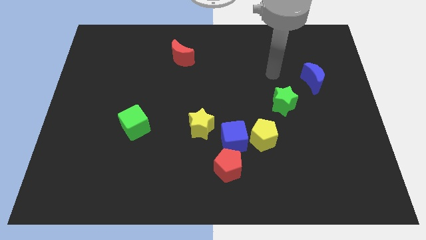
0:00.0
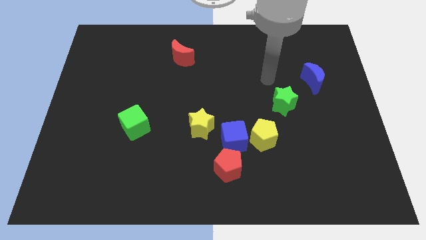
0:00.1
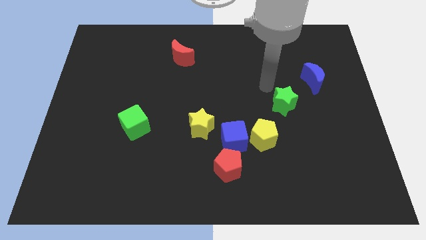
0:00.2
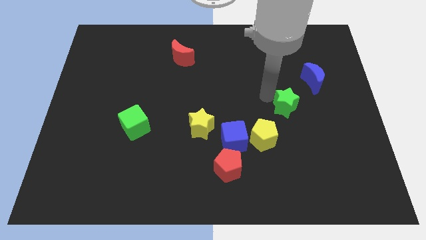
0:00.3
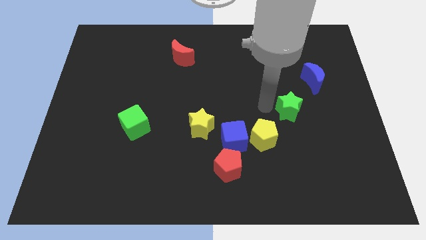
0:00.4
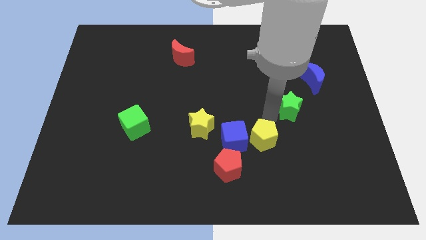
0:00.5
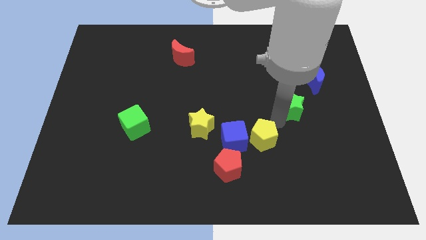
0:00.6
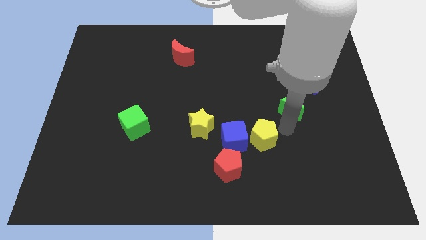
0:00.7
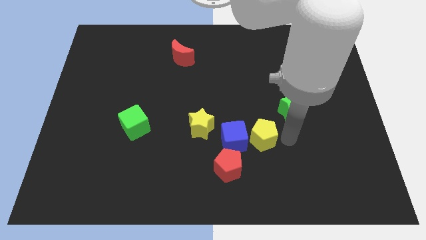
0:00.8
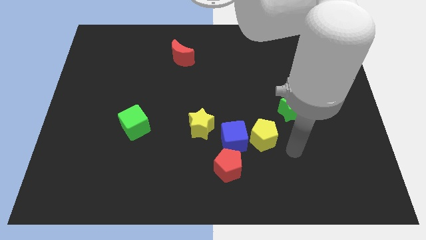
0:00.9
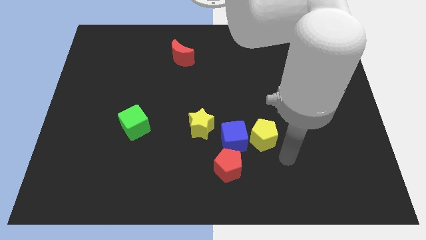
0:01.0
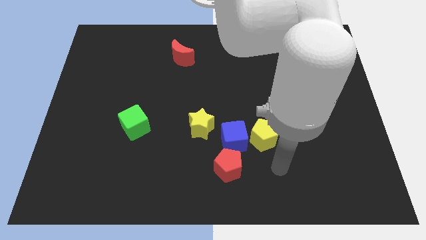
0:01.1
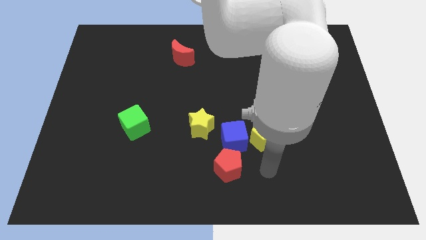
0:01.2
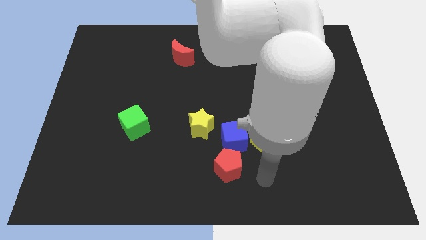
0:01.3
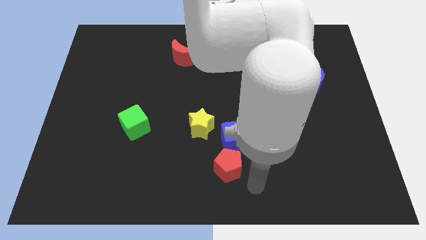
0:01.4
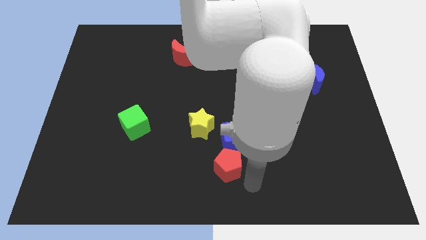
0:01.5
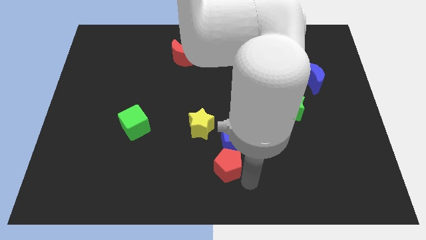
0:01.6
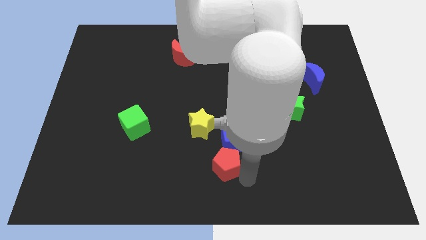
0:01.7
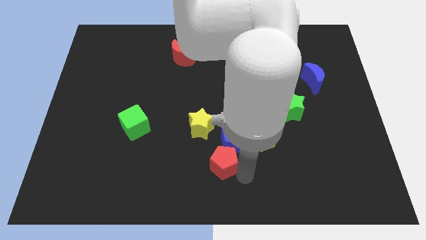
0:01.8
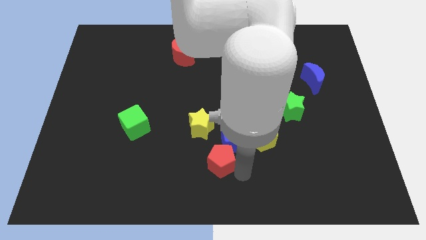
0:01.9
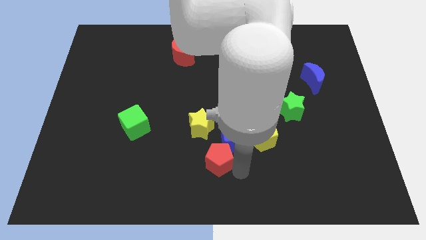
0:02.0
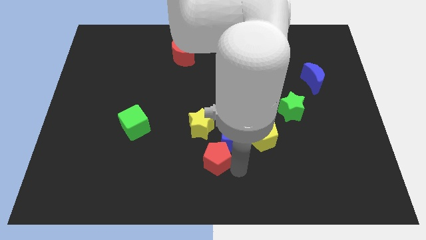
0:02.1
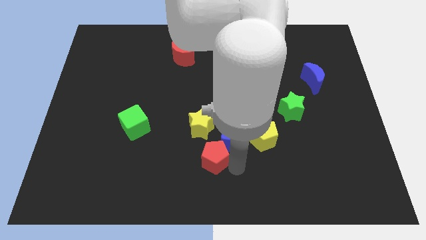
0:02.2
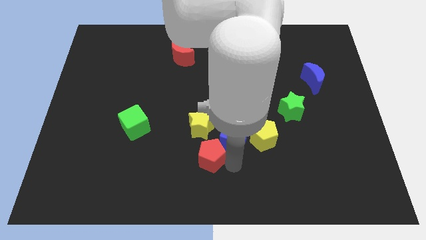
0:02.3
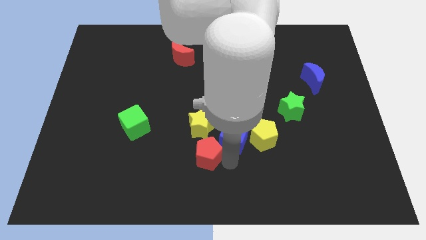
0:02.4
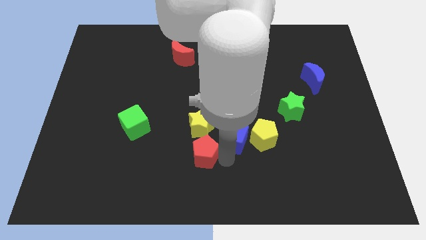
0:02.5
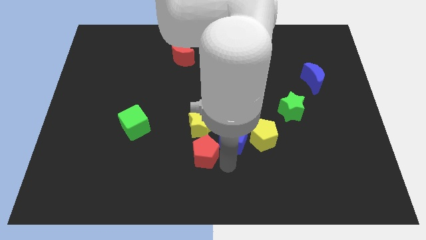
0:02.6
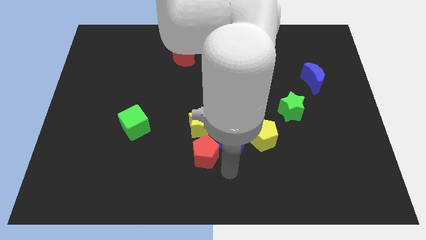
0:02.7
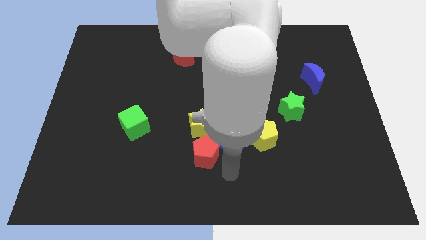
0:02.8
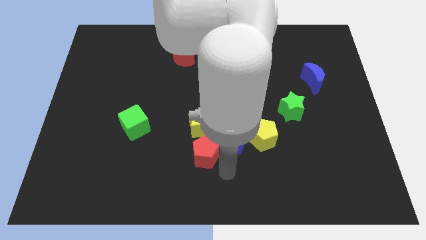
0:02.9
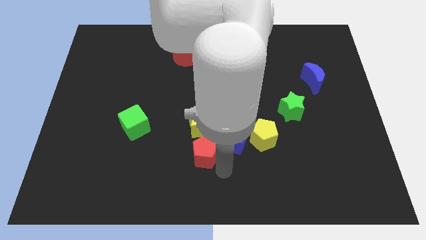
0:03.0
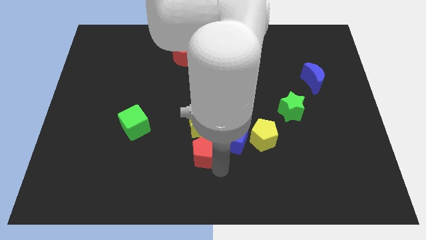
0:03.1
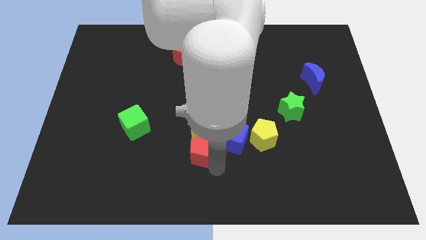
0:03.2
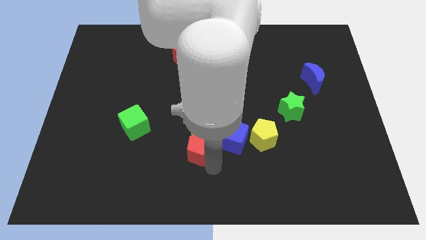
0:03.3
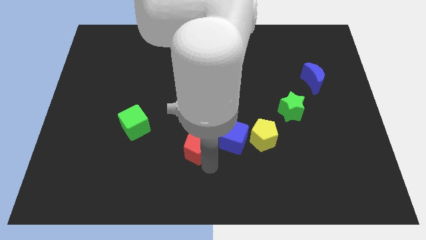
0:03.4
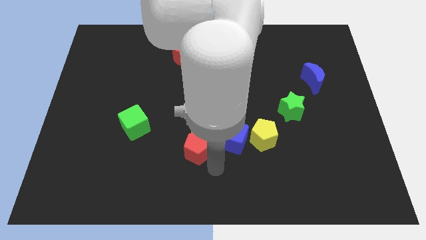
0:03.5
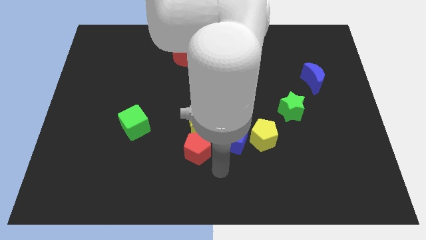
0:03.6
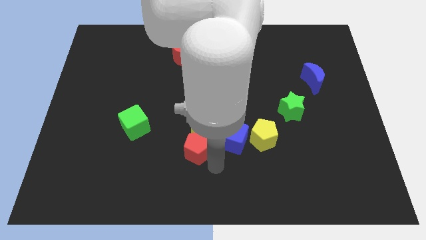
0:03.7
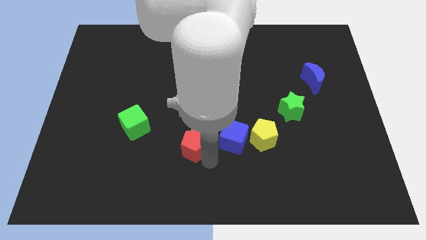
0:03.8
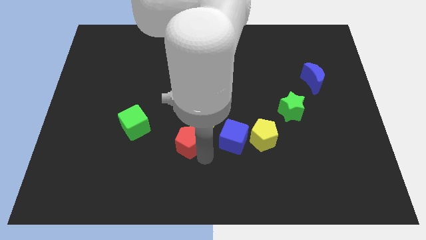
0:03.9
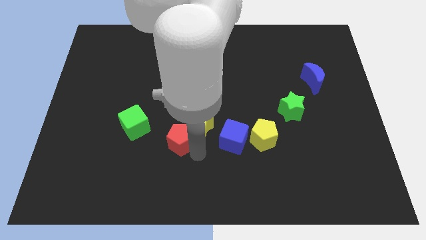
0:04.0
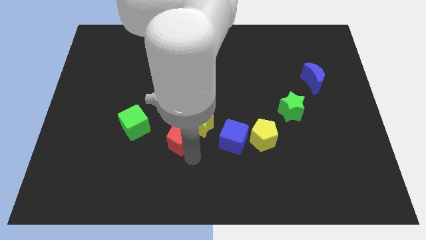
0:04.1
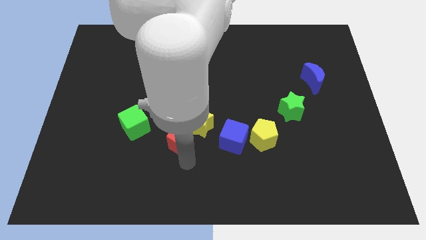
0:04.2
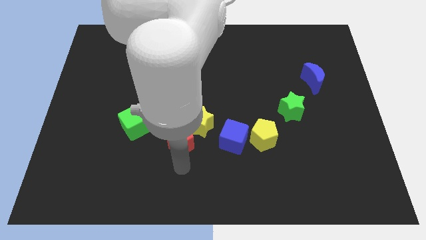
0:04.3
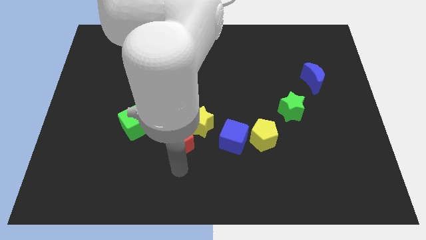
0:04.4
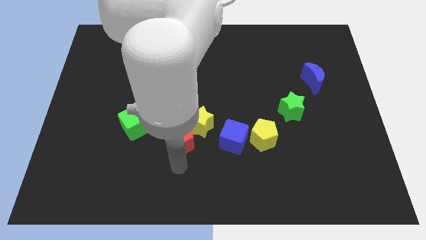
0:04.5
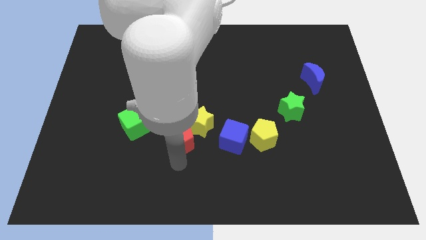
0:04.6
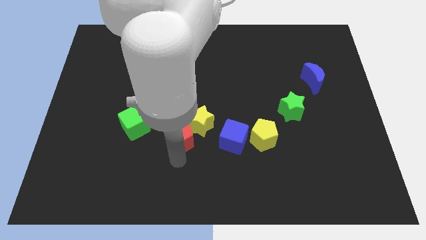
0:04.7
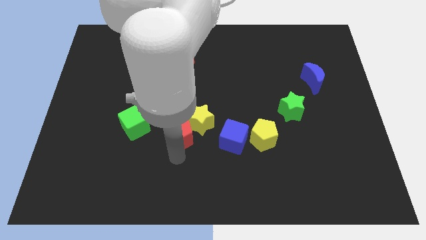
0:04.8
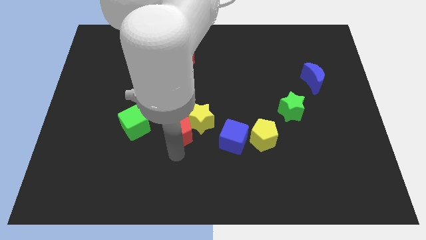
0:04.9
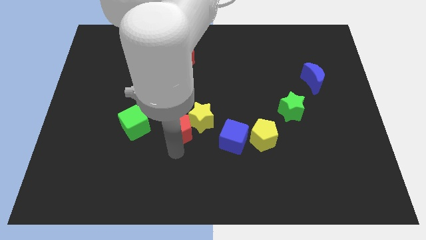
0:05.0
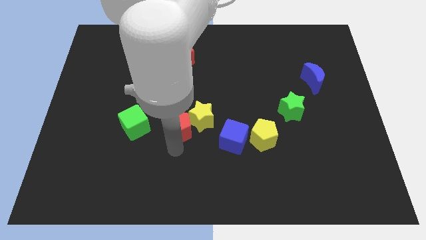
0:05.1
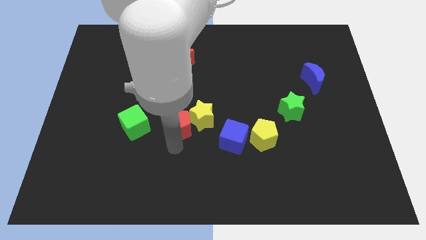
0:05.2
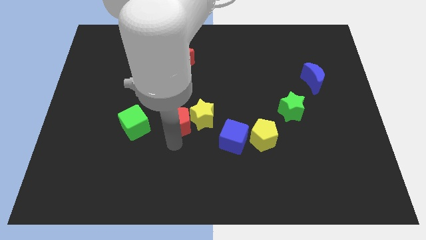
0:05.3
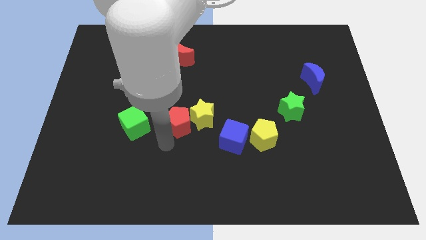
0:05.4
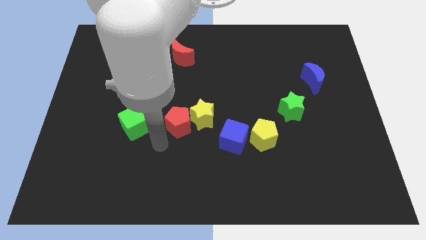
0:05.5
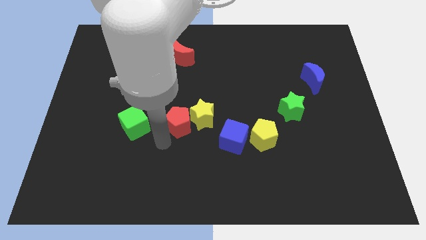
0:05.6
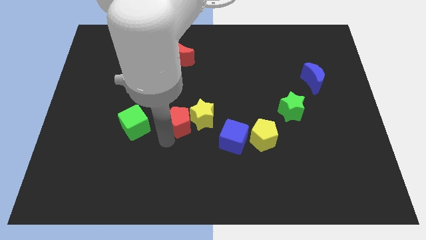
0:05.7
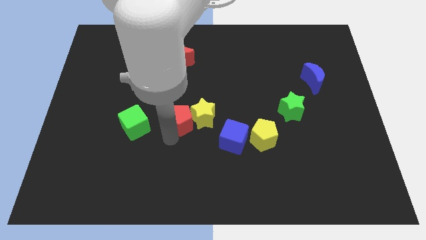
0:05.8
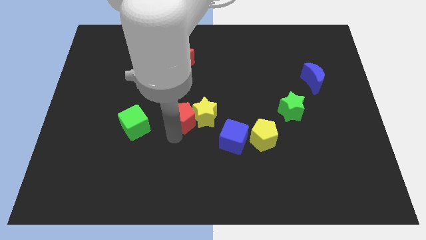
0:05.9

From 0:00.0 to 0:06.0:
slide the red pentagon upwards a little

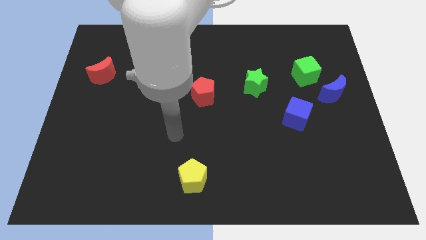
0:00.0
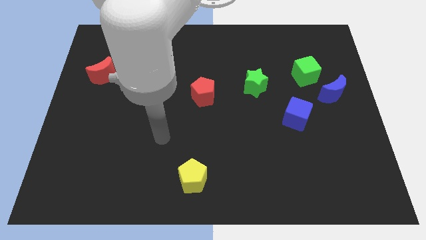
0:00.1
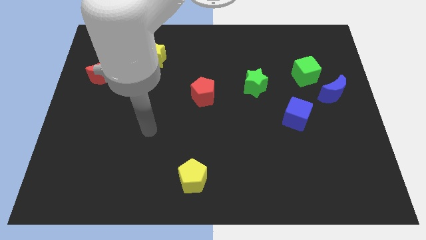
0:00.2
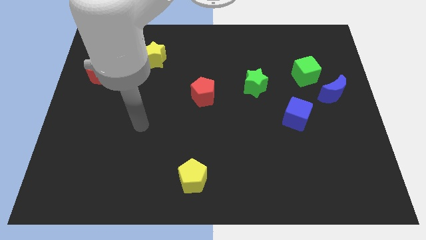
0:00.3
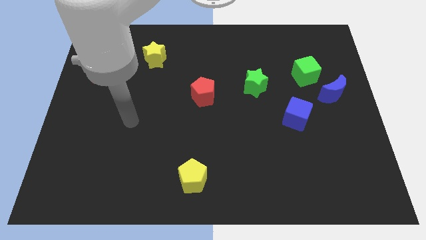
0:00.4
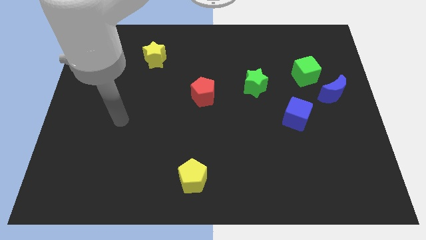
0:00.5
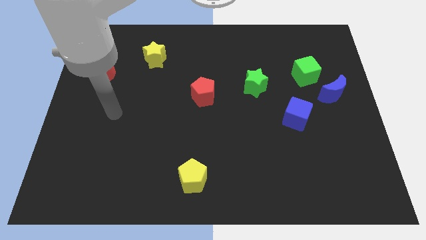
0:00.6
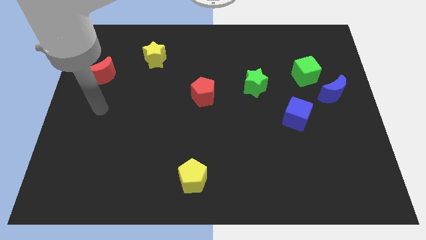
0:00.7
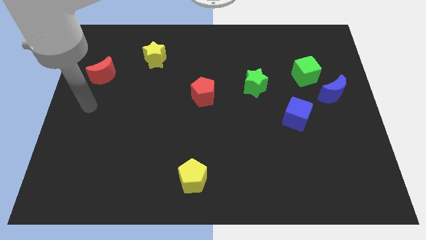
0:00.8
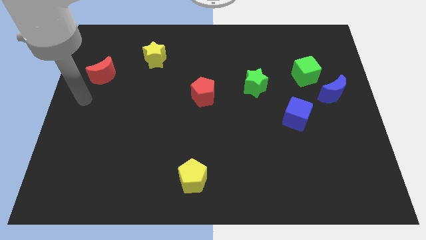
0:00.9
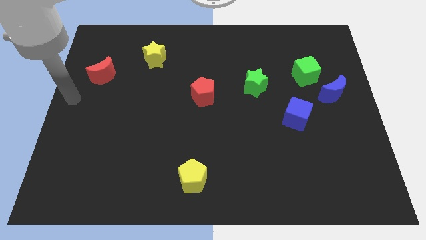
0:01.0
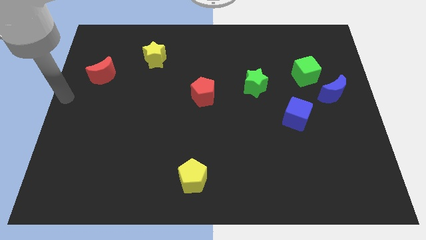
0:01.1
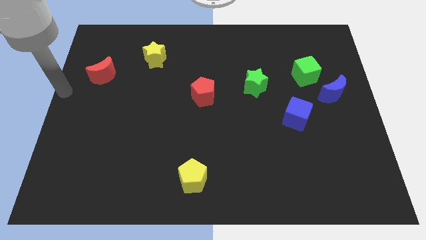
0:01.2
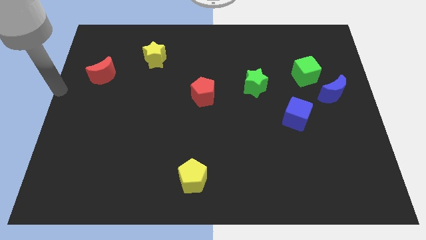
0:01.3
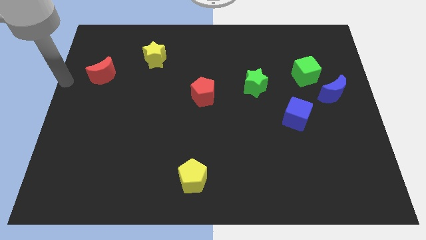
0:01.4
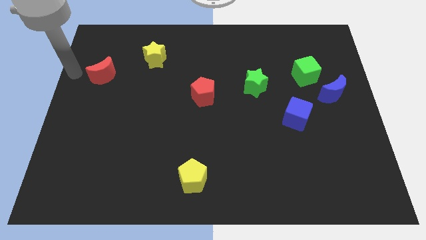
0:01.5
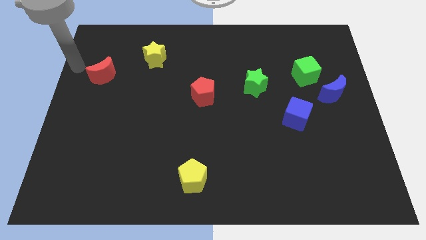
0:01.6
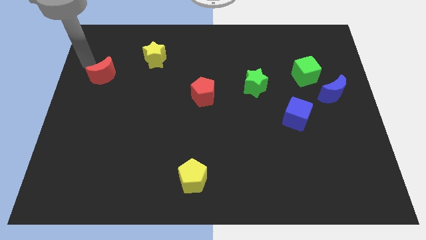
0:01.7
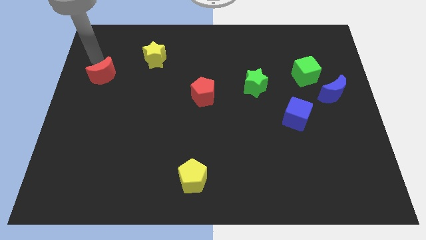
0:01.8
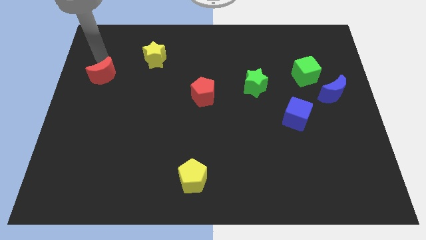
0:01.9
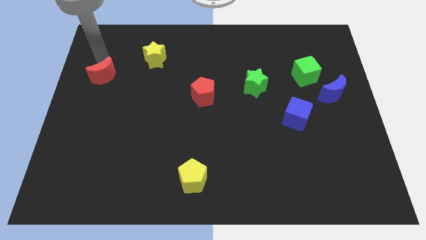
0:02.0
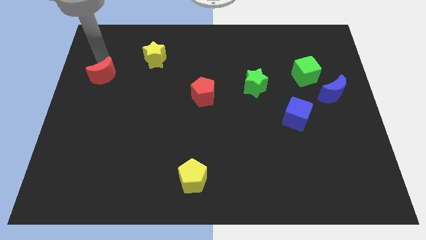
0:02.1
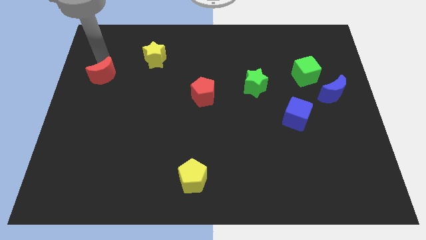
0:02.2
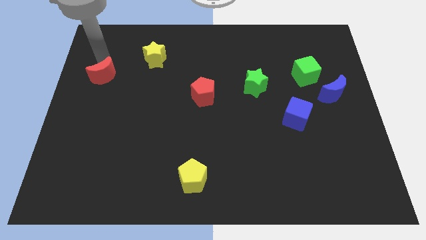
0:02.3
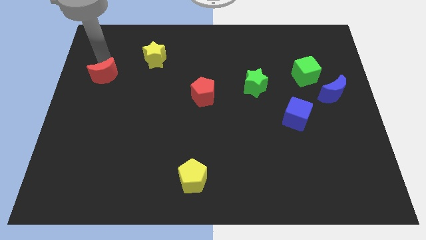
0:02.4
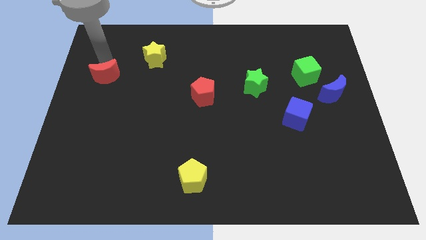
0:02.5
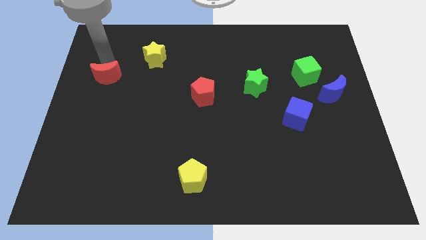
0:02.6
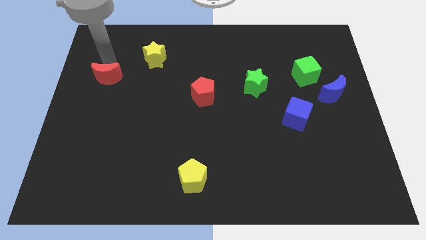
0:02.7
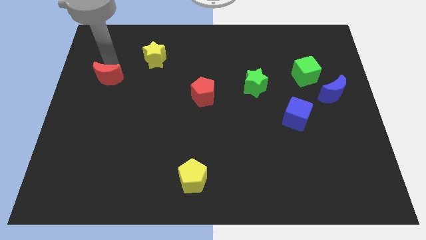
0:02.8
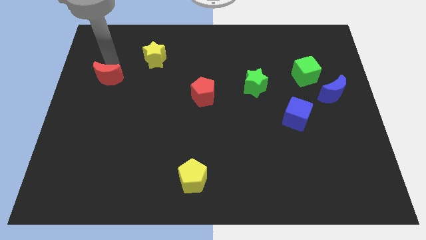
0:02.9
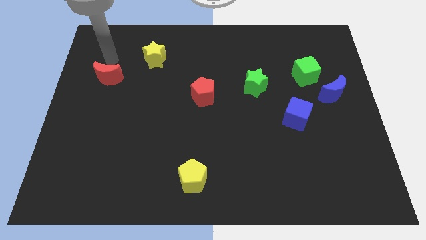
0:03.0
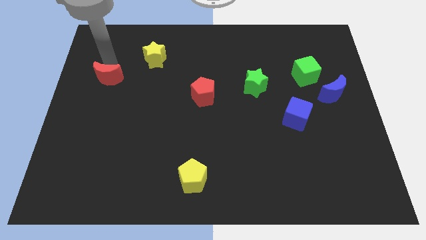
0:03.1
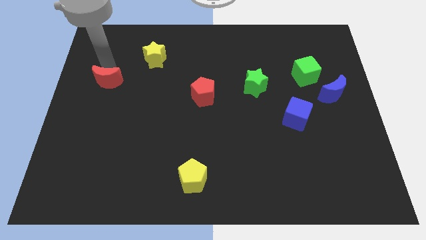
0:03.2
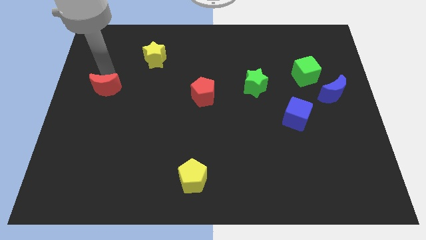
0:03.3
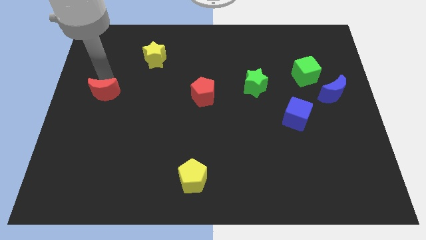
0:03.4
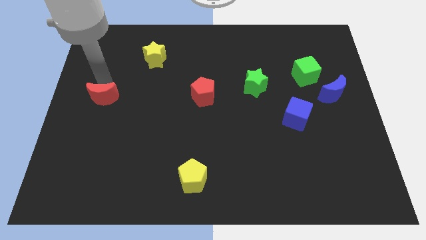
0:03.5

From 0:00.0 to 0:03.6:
slide the red moon somewhat down
